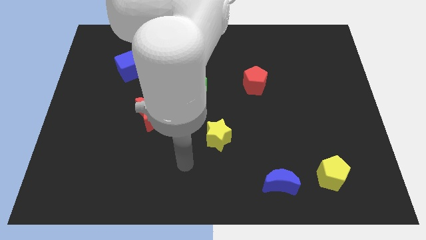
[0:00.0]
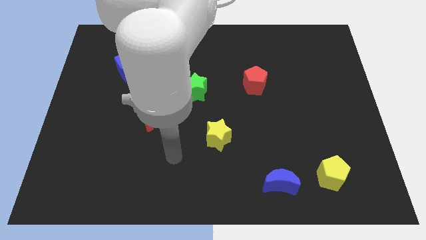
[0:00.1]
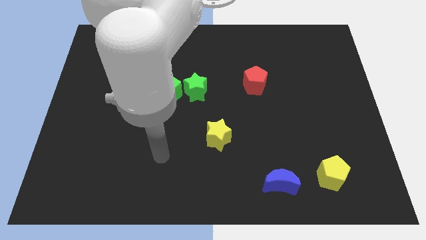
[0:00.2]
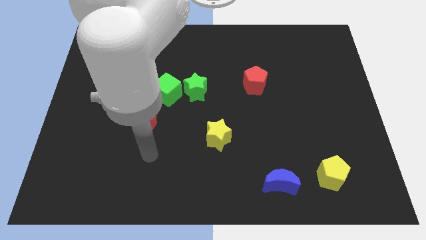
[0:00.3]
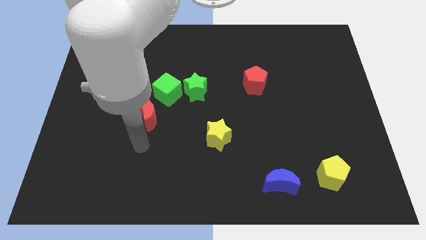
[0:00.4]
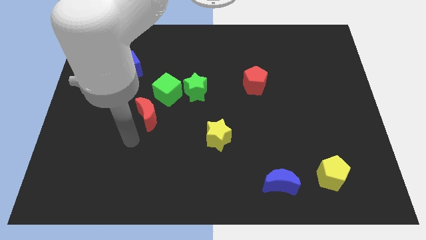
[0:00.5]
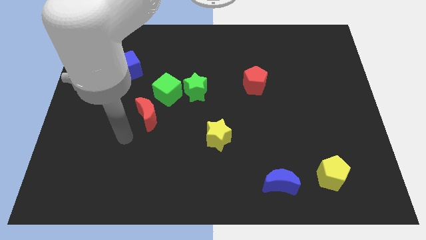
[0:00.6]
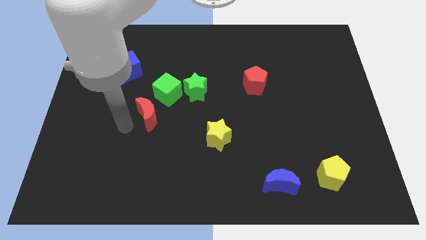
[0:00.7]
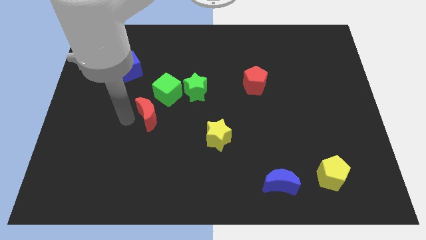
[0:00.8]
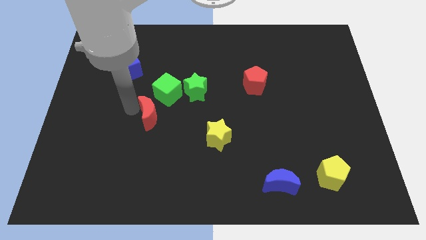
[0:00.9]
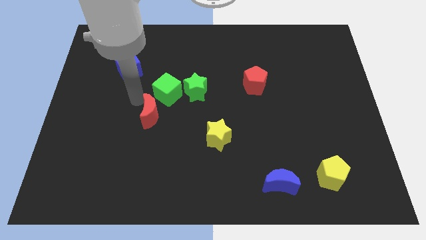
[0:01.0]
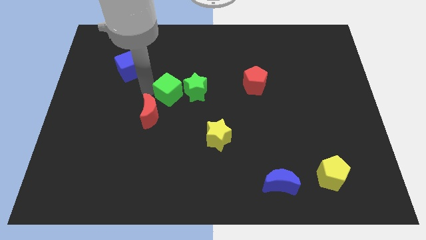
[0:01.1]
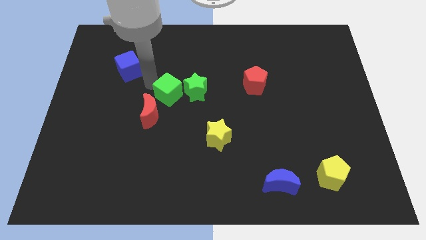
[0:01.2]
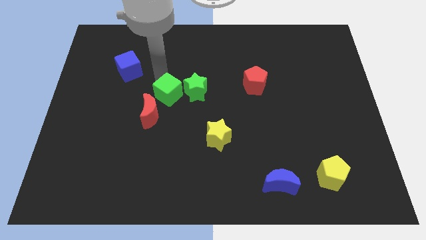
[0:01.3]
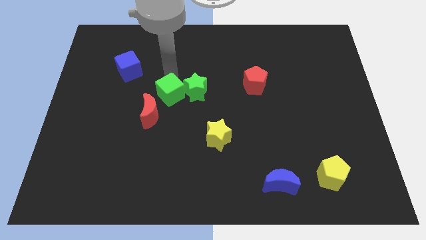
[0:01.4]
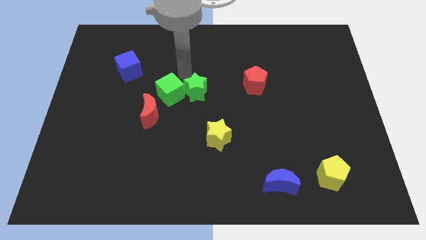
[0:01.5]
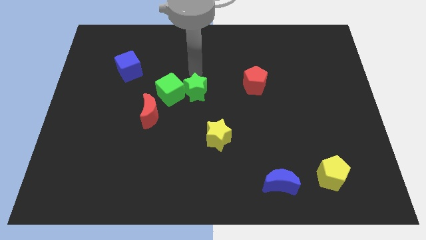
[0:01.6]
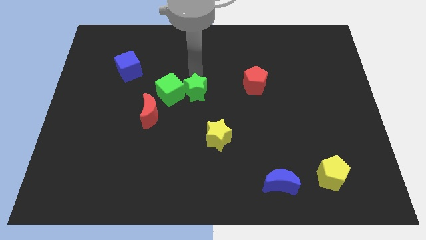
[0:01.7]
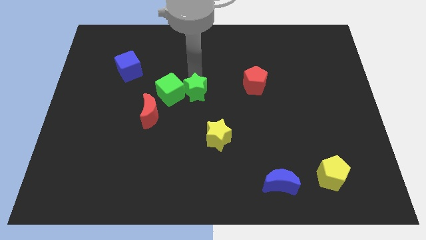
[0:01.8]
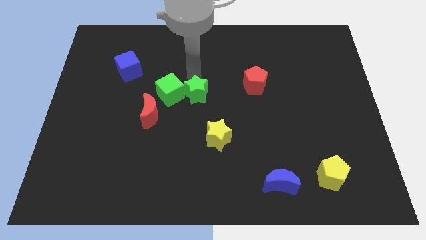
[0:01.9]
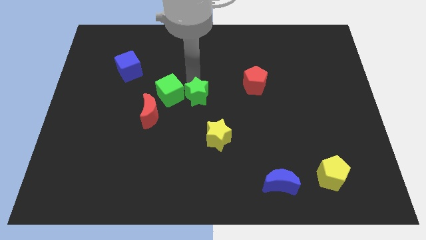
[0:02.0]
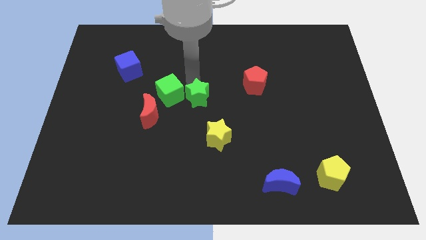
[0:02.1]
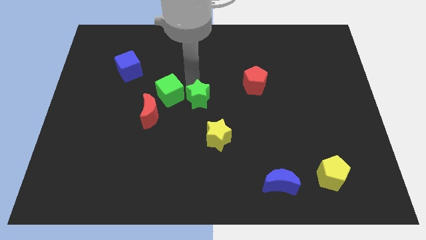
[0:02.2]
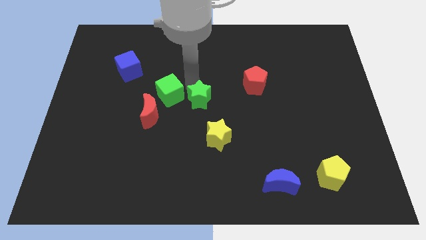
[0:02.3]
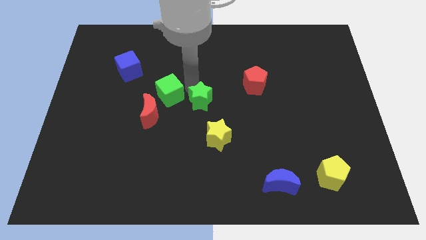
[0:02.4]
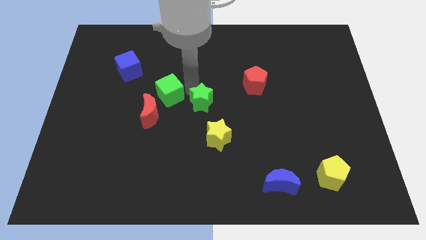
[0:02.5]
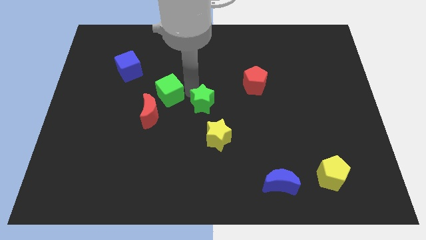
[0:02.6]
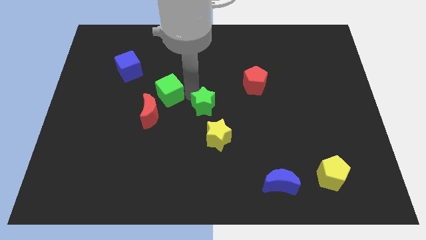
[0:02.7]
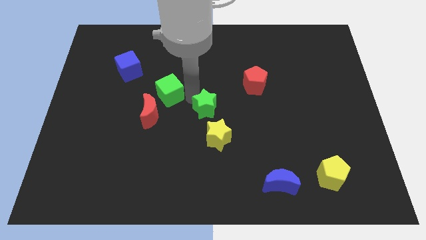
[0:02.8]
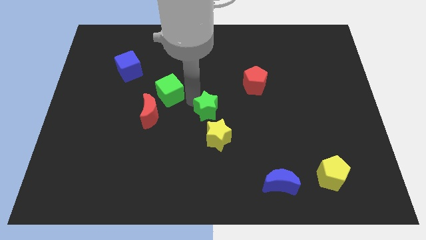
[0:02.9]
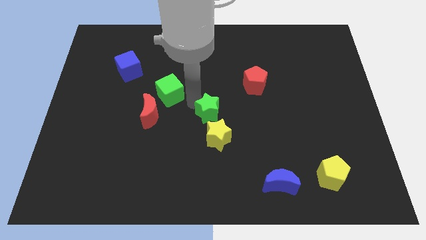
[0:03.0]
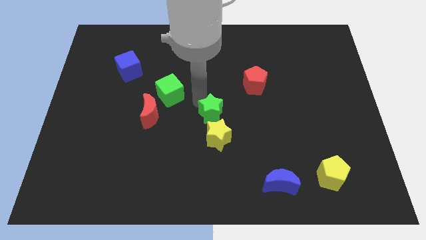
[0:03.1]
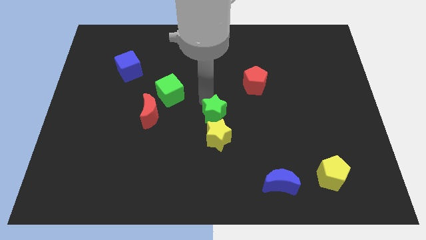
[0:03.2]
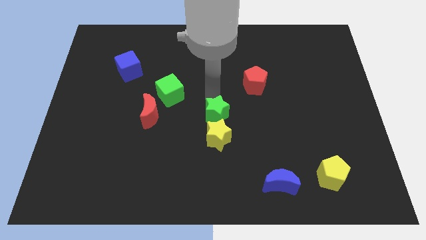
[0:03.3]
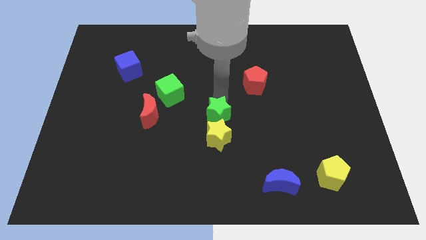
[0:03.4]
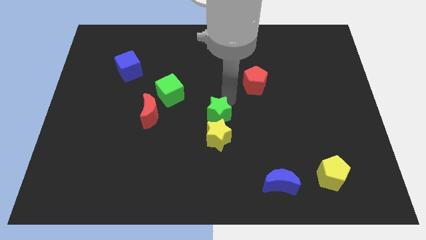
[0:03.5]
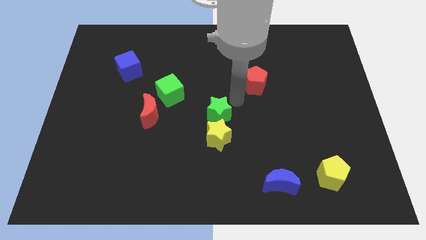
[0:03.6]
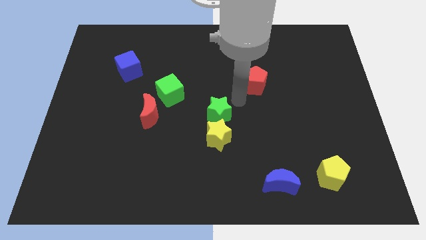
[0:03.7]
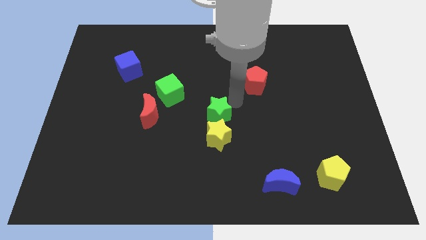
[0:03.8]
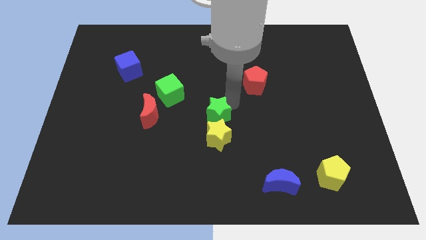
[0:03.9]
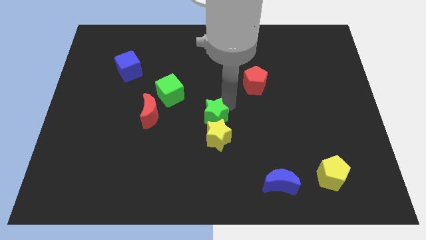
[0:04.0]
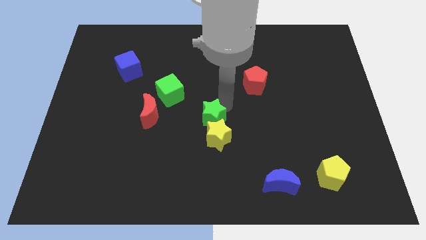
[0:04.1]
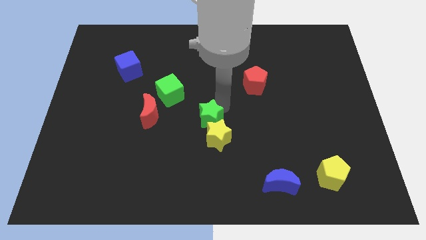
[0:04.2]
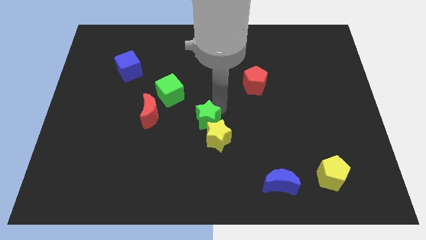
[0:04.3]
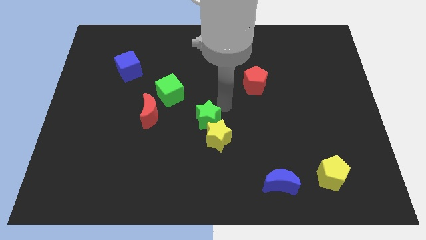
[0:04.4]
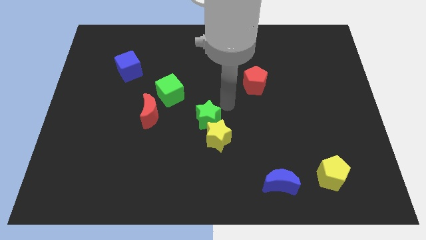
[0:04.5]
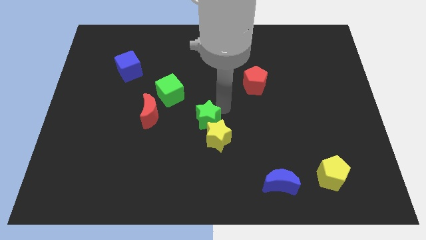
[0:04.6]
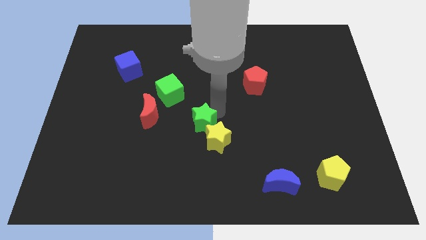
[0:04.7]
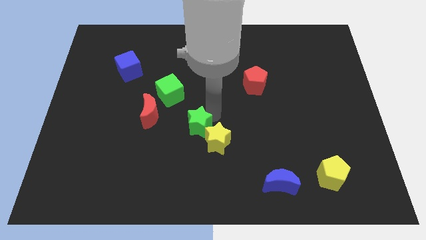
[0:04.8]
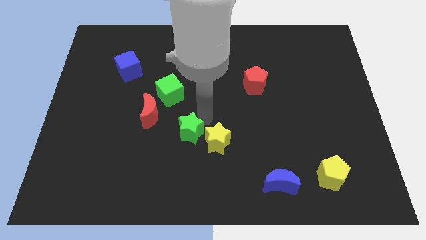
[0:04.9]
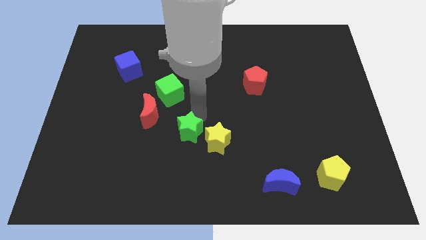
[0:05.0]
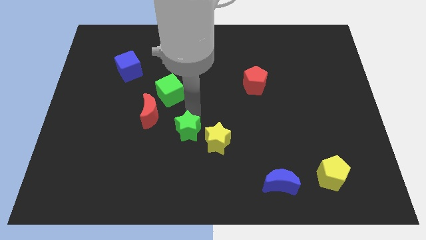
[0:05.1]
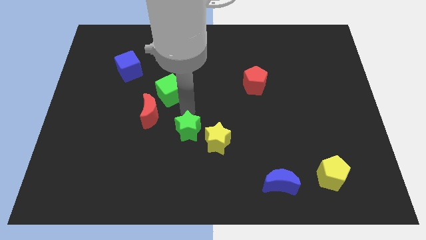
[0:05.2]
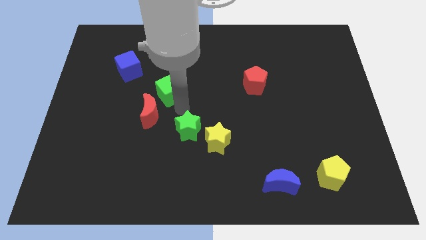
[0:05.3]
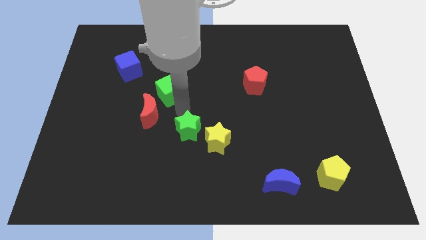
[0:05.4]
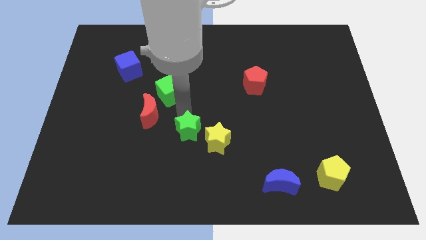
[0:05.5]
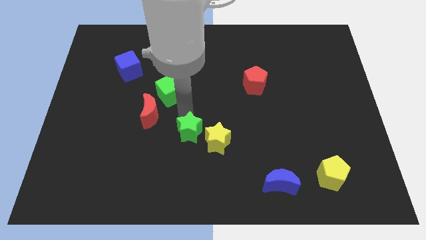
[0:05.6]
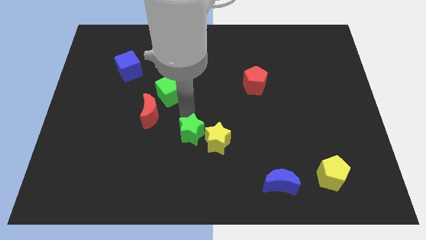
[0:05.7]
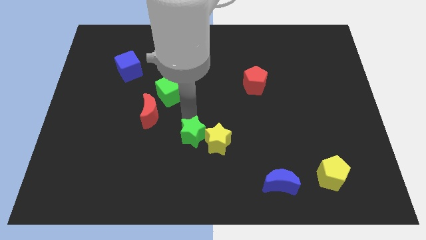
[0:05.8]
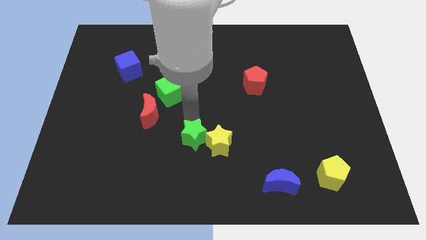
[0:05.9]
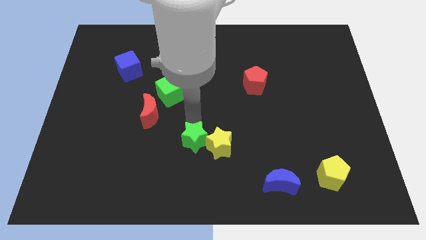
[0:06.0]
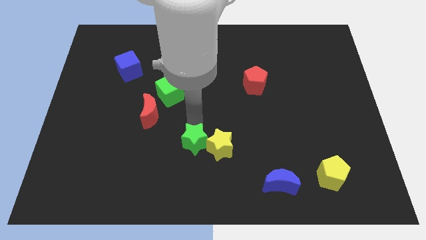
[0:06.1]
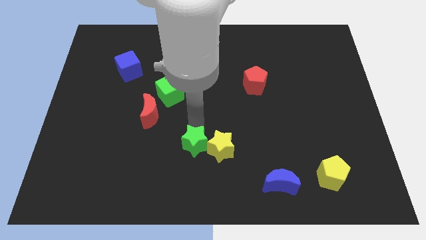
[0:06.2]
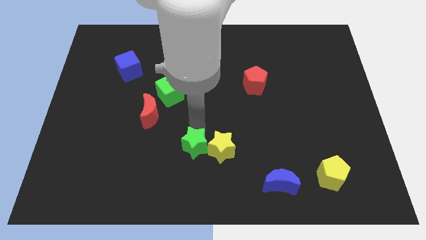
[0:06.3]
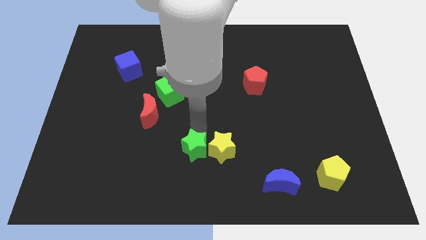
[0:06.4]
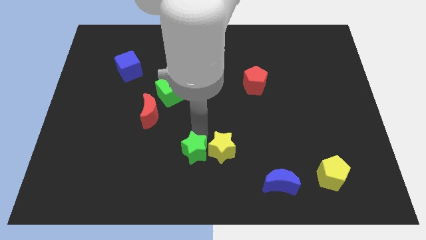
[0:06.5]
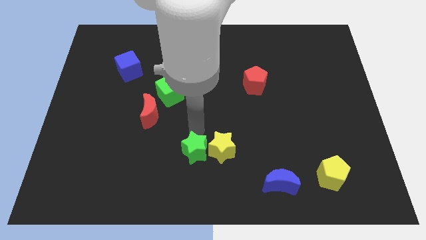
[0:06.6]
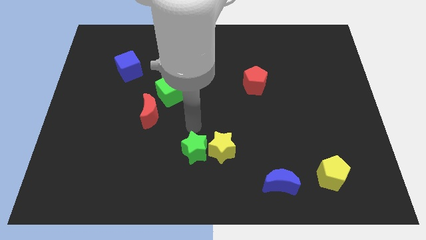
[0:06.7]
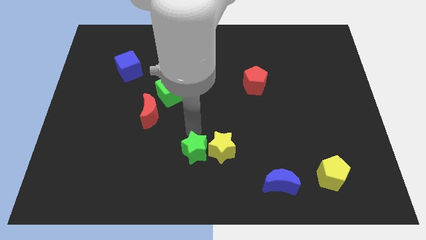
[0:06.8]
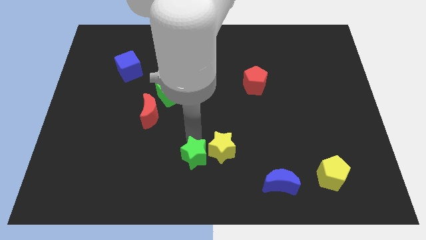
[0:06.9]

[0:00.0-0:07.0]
put the green star to the bottom side
